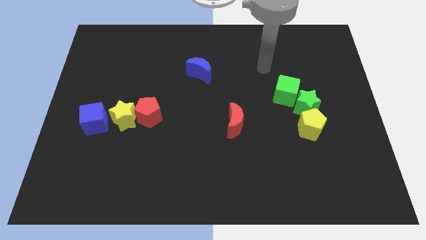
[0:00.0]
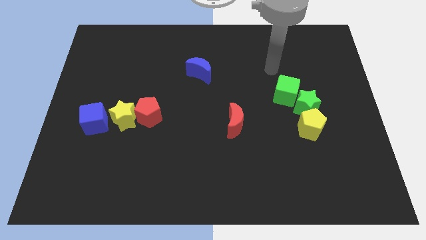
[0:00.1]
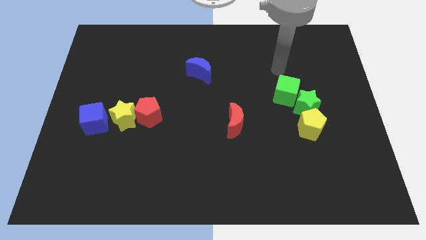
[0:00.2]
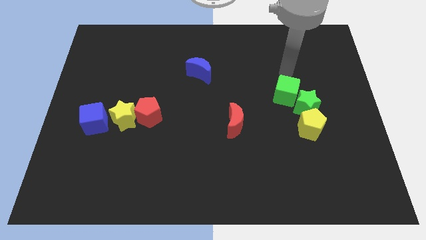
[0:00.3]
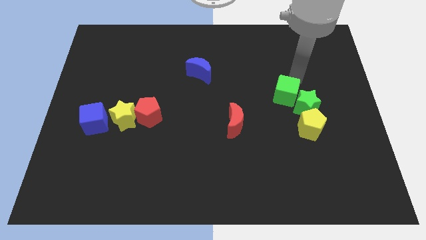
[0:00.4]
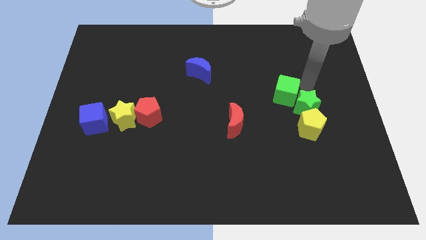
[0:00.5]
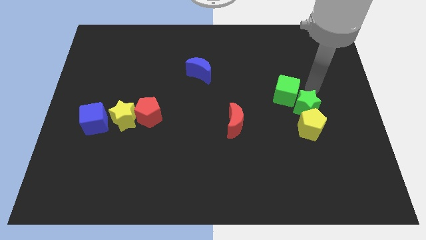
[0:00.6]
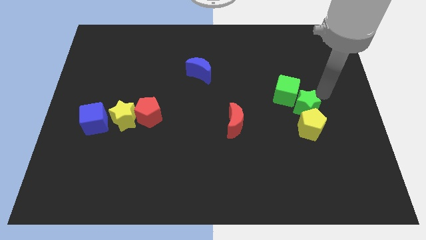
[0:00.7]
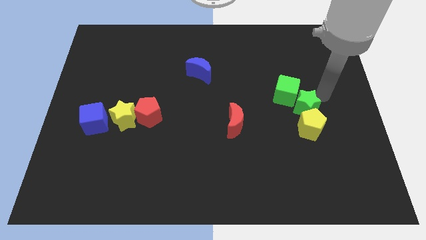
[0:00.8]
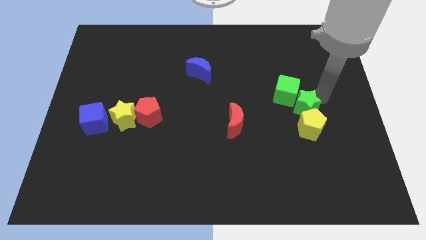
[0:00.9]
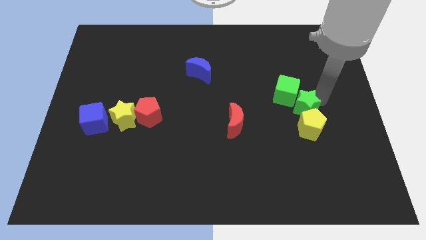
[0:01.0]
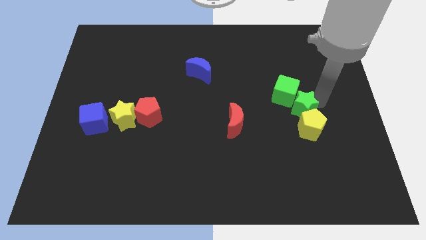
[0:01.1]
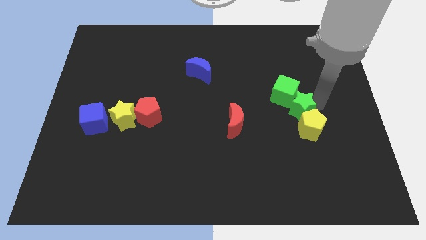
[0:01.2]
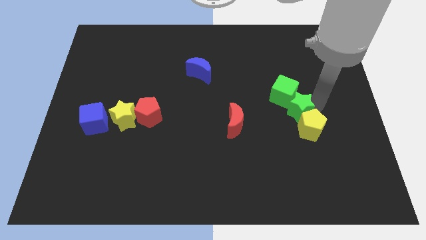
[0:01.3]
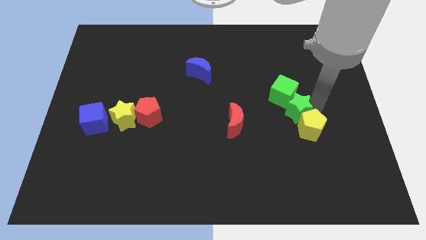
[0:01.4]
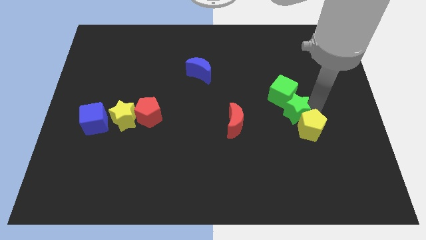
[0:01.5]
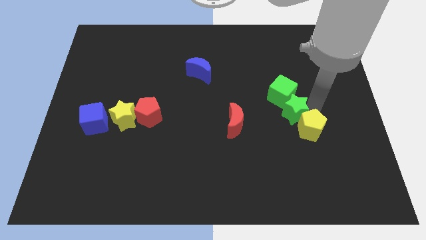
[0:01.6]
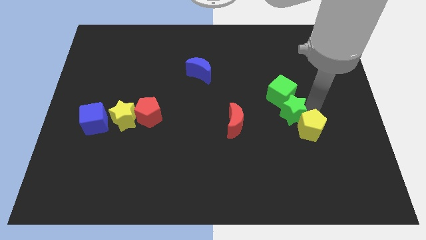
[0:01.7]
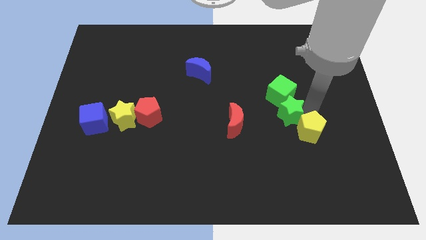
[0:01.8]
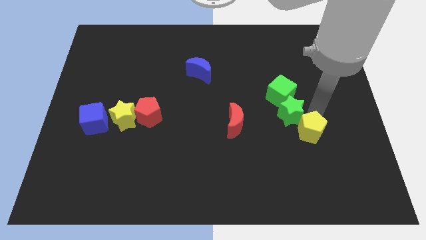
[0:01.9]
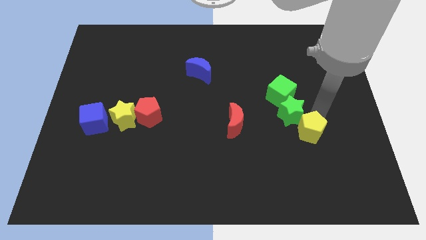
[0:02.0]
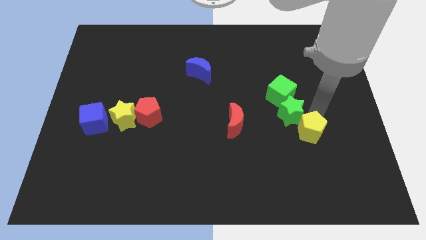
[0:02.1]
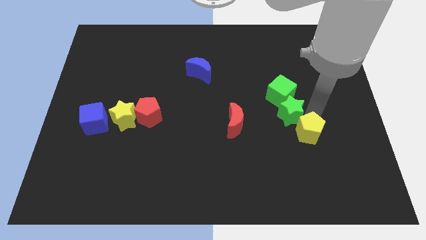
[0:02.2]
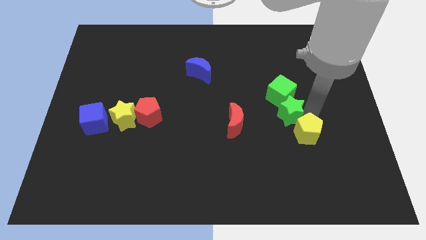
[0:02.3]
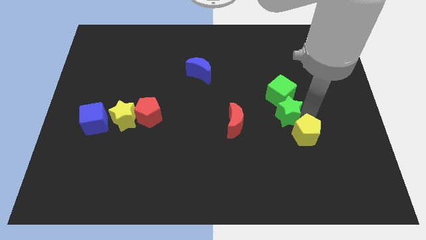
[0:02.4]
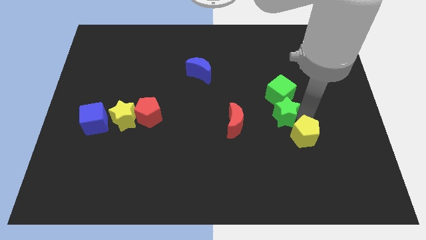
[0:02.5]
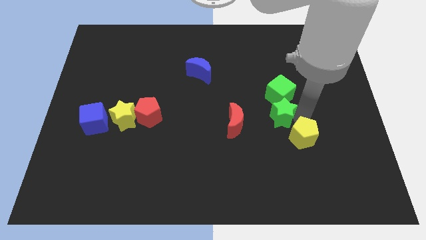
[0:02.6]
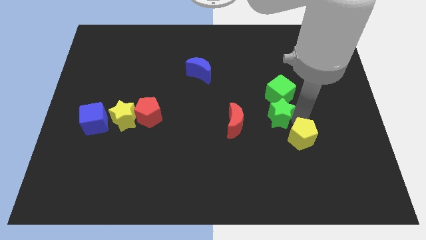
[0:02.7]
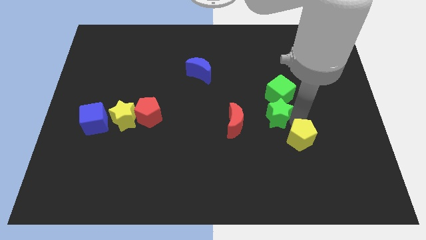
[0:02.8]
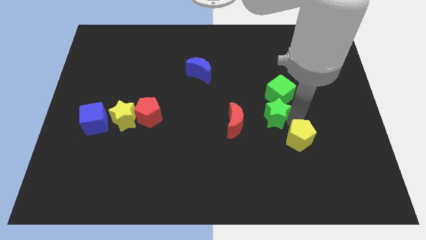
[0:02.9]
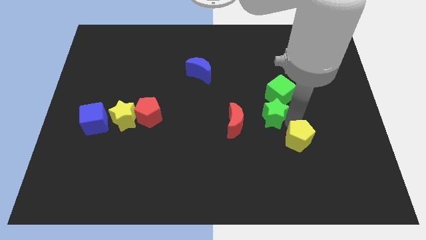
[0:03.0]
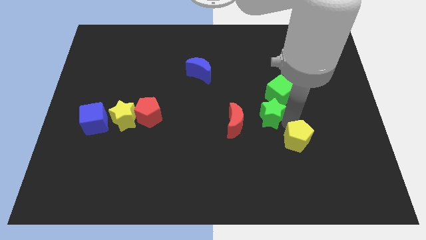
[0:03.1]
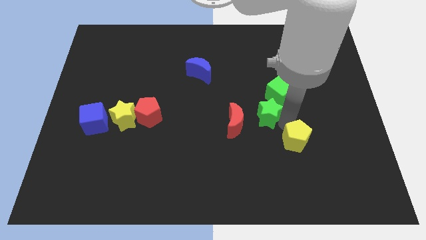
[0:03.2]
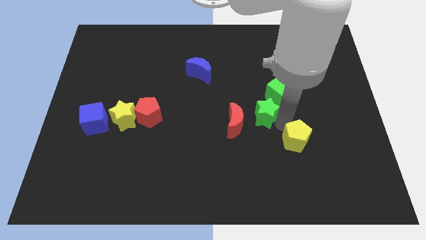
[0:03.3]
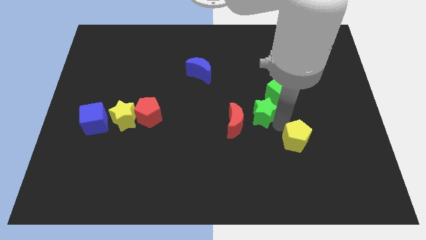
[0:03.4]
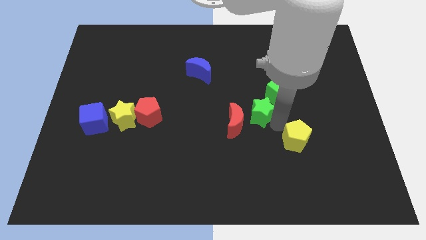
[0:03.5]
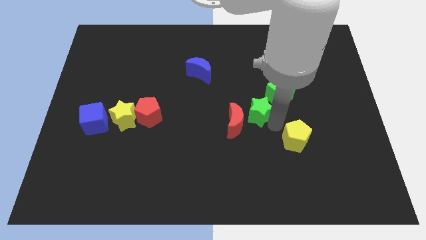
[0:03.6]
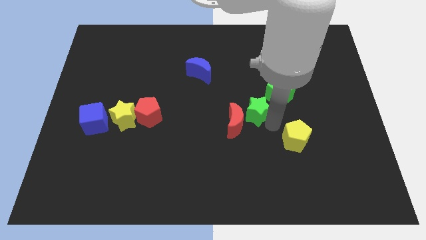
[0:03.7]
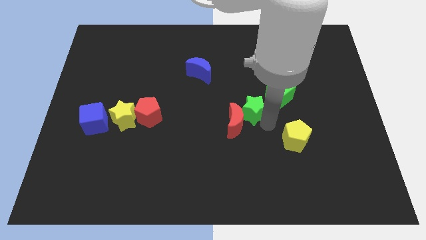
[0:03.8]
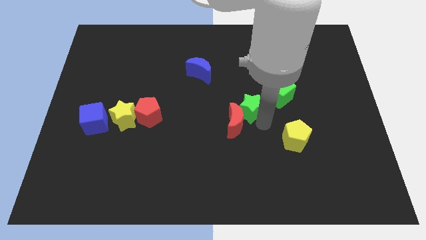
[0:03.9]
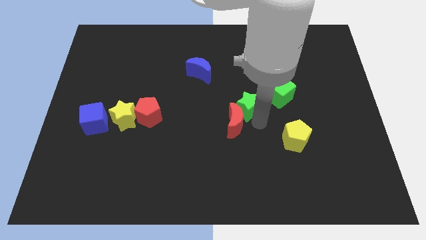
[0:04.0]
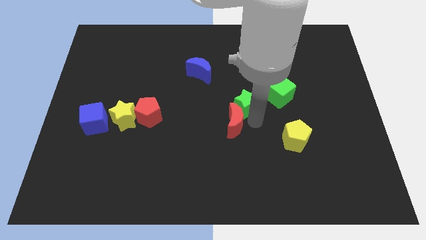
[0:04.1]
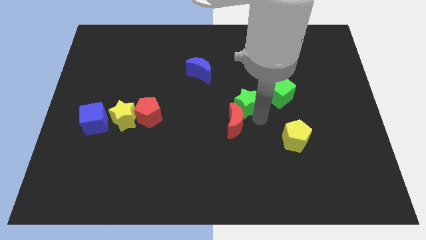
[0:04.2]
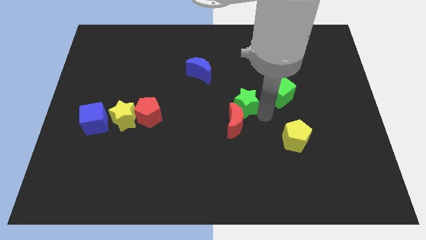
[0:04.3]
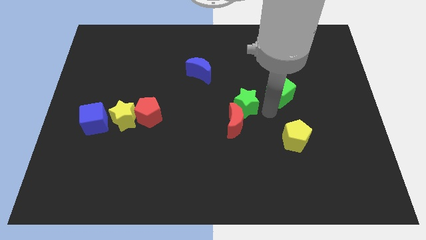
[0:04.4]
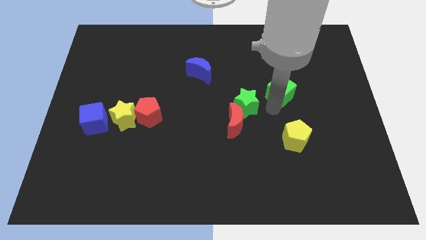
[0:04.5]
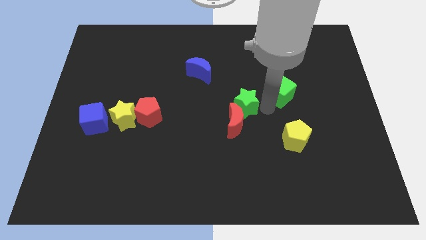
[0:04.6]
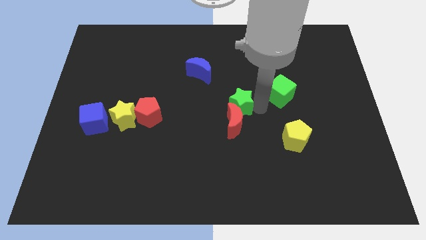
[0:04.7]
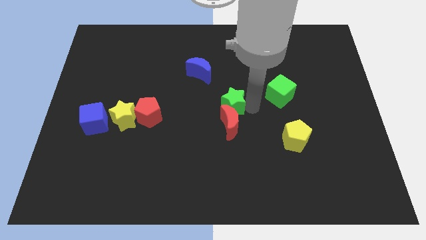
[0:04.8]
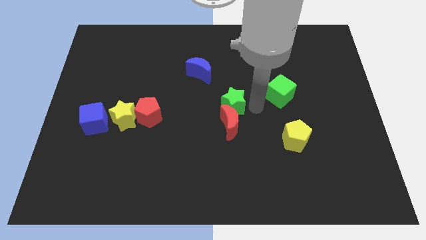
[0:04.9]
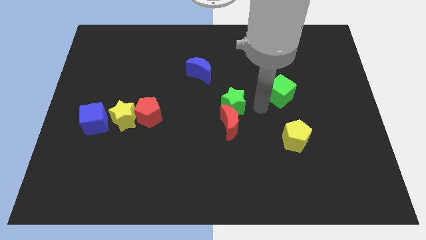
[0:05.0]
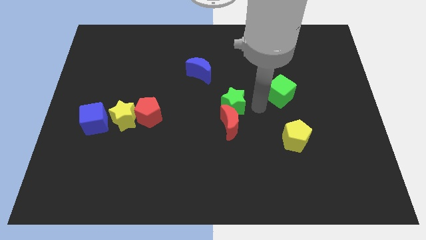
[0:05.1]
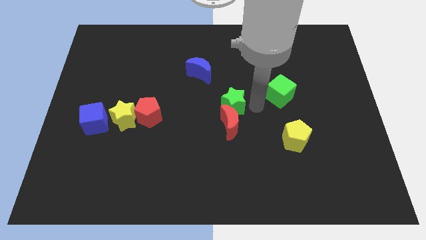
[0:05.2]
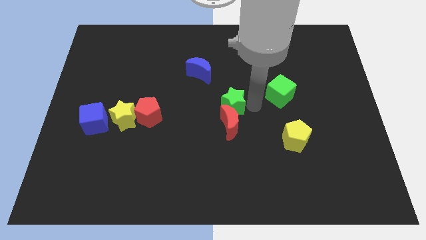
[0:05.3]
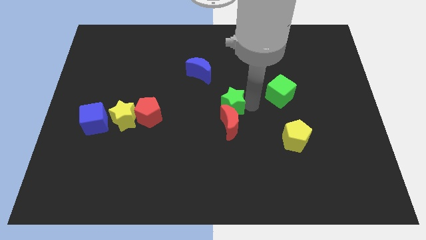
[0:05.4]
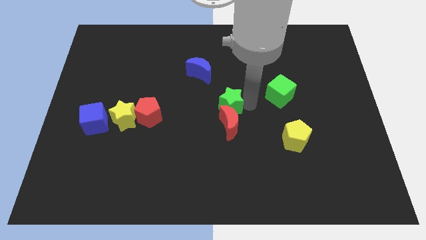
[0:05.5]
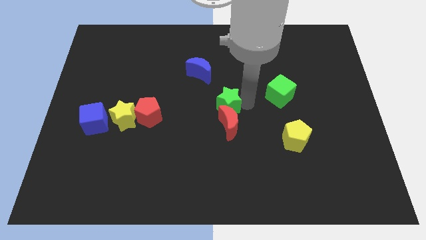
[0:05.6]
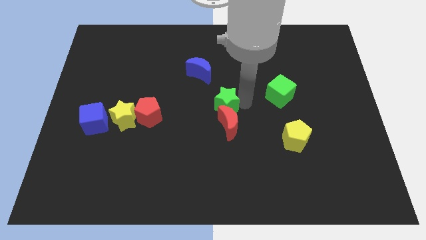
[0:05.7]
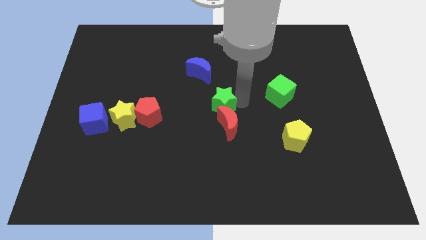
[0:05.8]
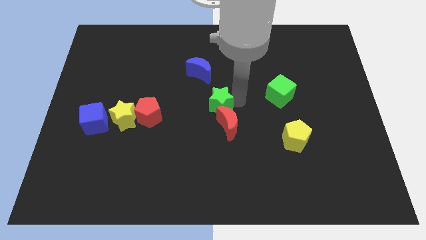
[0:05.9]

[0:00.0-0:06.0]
slide the green star below the blue moon

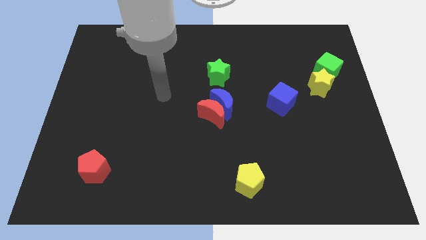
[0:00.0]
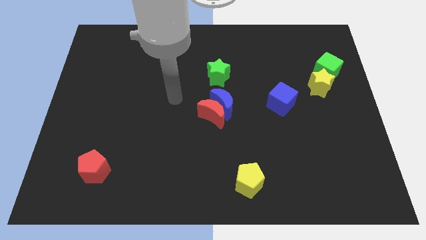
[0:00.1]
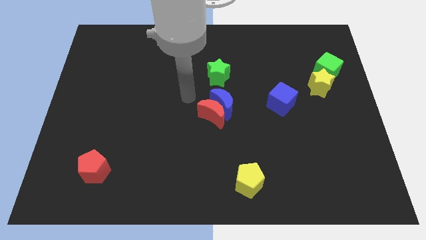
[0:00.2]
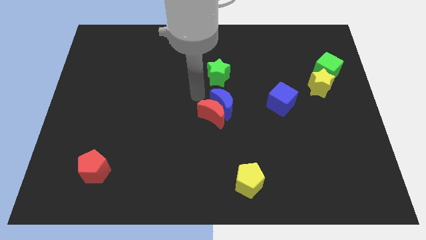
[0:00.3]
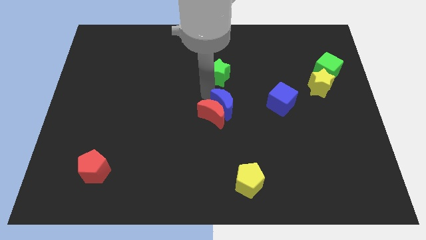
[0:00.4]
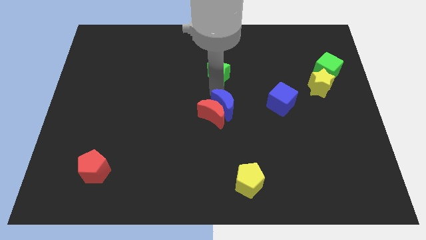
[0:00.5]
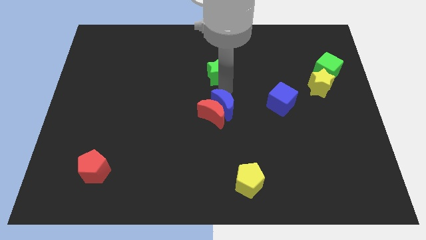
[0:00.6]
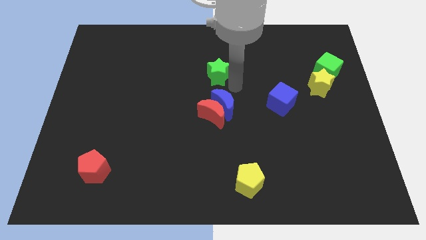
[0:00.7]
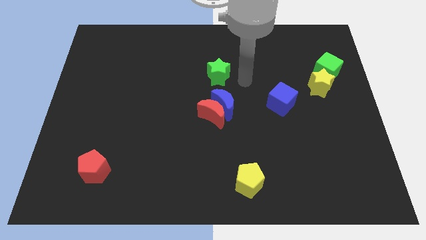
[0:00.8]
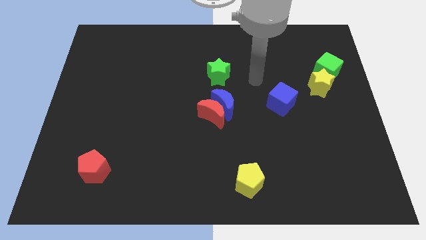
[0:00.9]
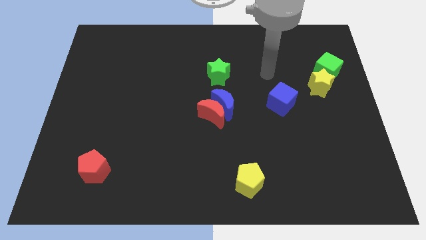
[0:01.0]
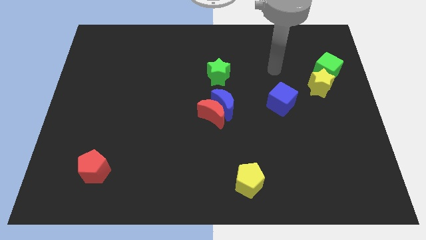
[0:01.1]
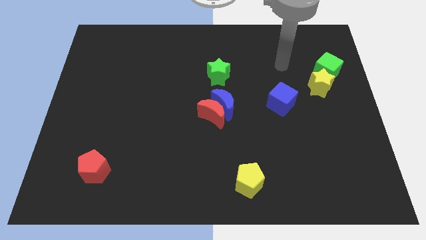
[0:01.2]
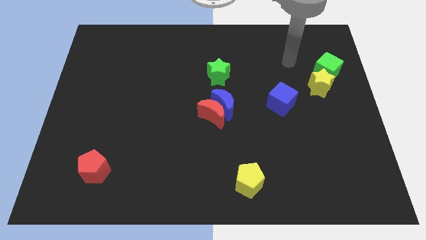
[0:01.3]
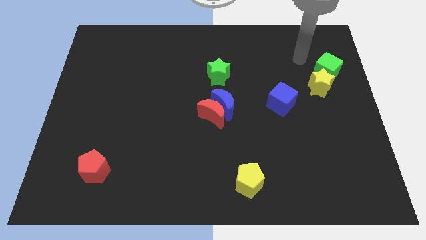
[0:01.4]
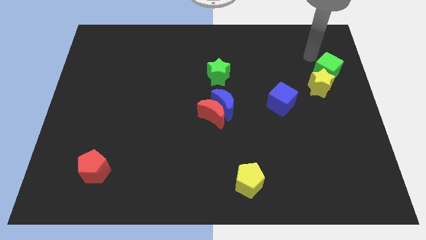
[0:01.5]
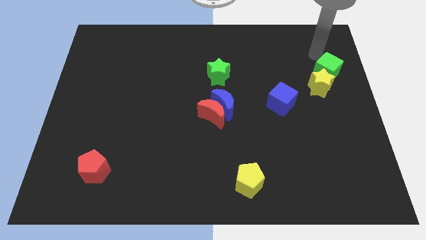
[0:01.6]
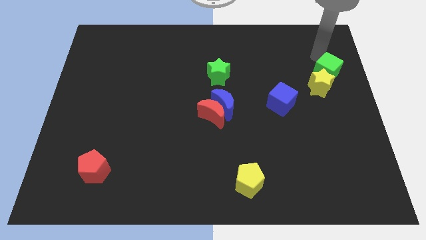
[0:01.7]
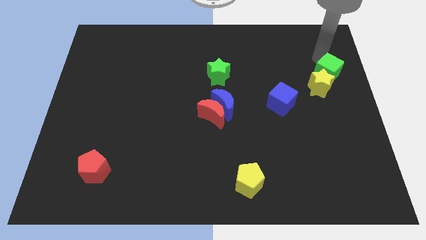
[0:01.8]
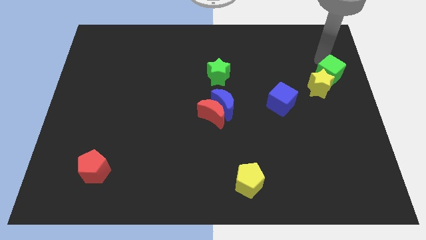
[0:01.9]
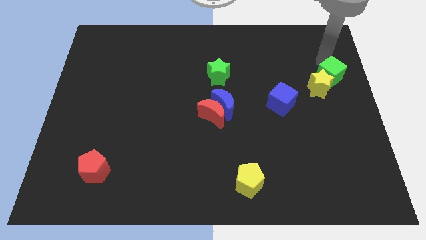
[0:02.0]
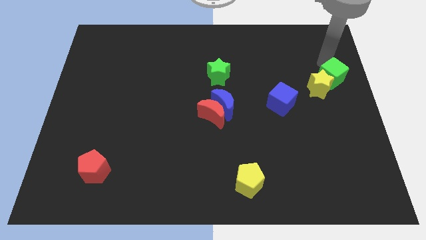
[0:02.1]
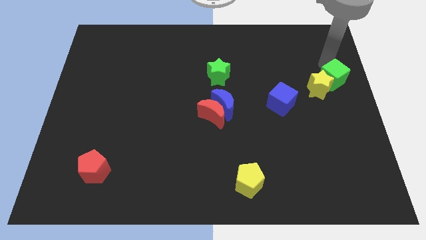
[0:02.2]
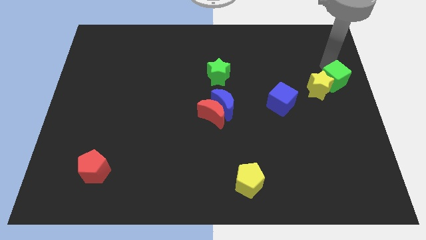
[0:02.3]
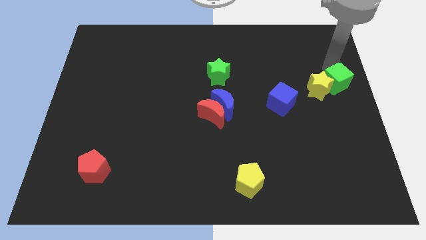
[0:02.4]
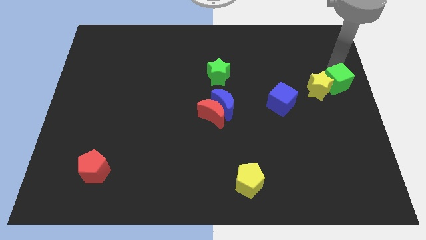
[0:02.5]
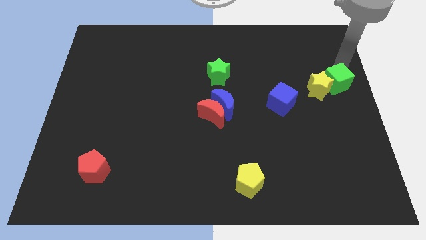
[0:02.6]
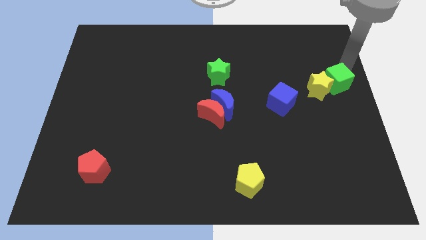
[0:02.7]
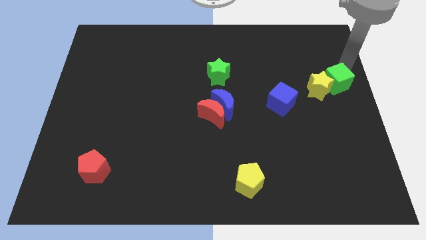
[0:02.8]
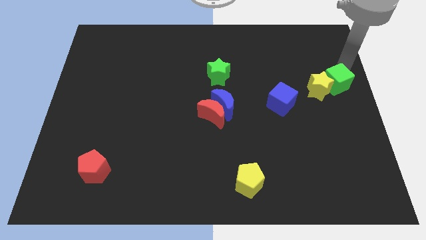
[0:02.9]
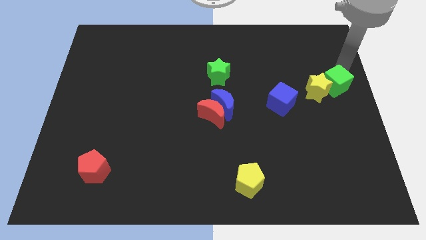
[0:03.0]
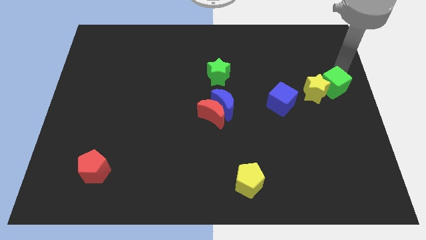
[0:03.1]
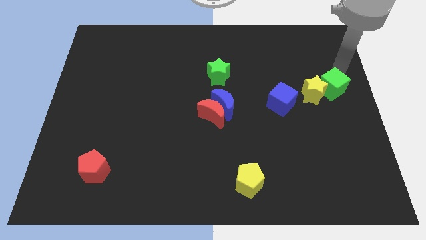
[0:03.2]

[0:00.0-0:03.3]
put the green cube just right of the blue cube
